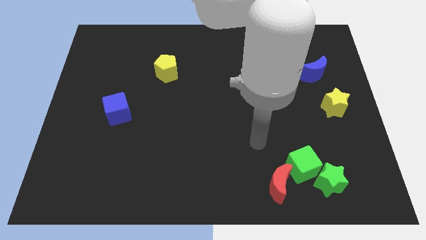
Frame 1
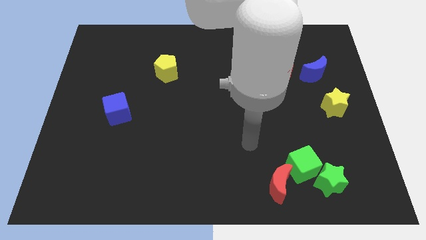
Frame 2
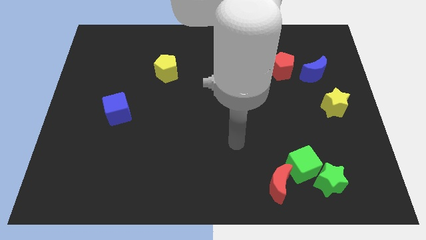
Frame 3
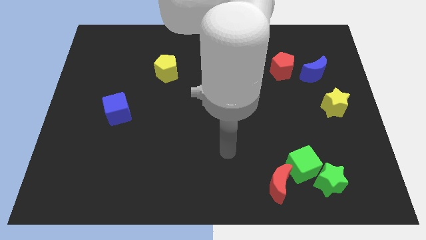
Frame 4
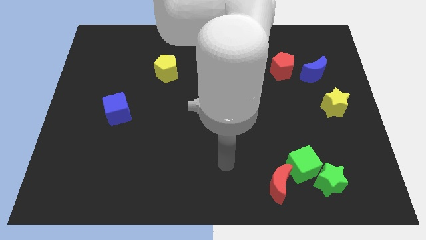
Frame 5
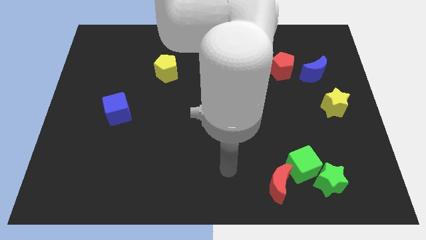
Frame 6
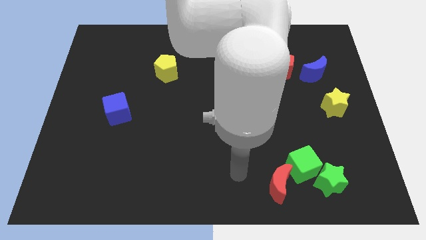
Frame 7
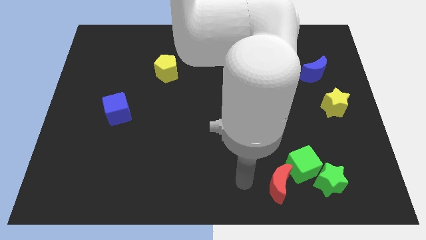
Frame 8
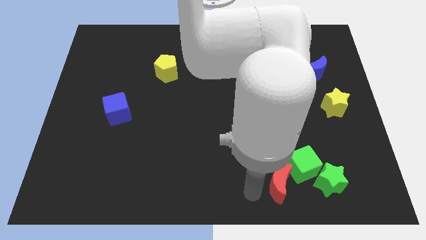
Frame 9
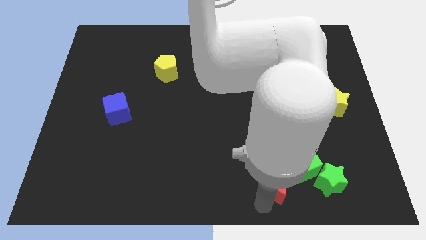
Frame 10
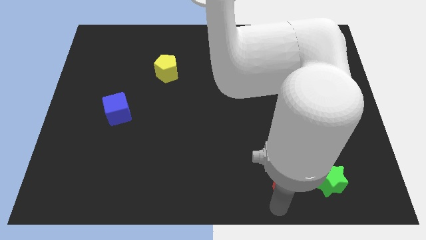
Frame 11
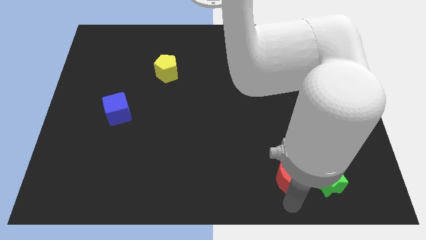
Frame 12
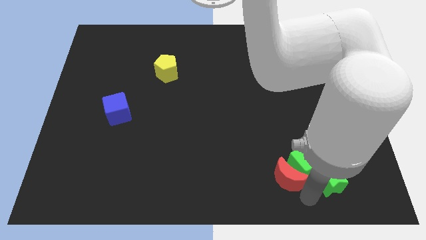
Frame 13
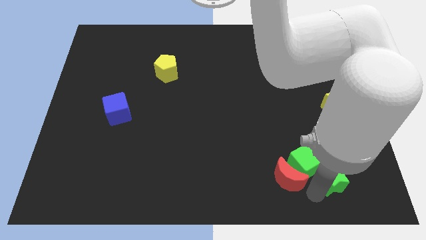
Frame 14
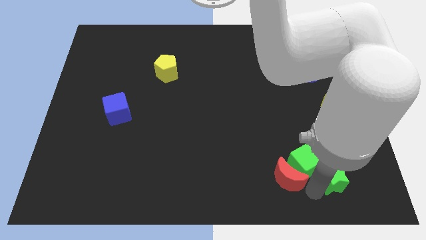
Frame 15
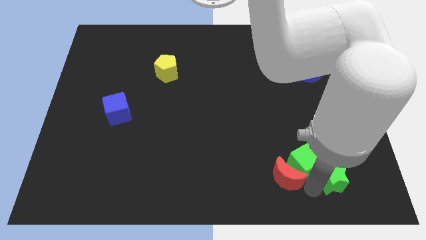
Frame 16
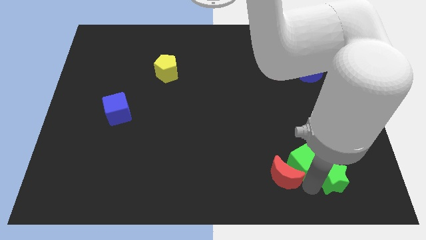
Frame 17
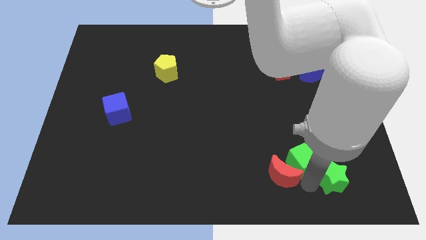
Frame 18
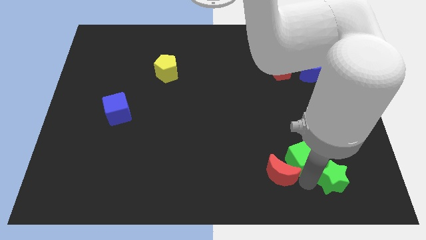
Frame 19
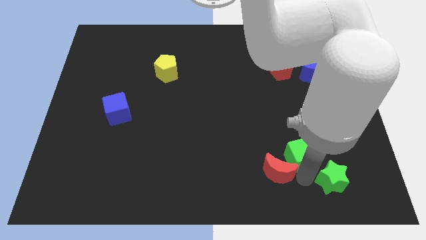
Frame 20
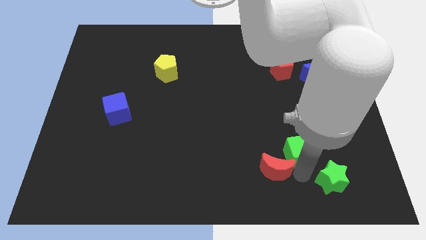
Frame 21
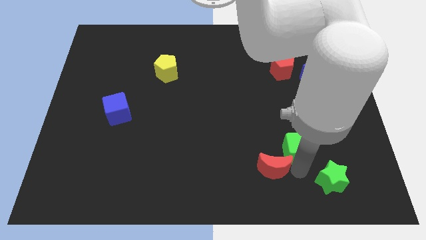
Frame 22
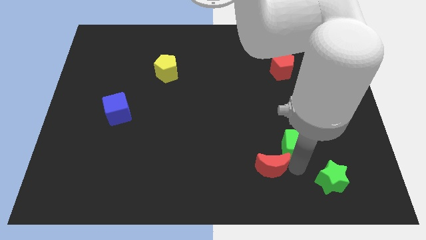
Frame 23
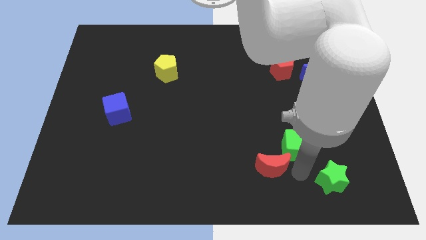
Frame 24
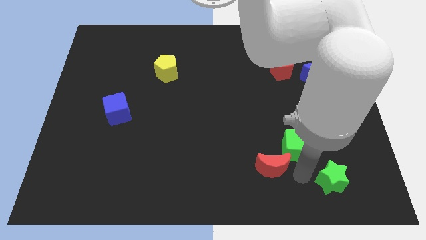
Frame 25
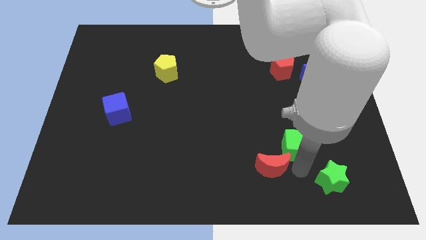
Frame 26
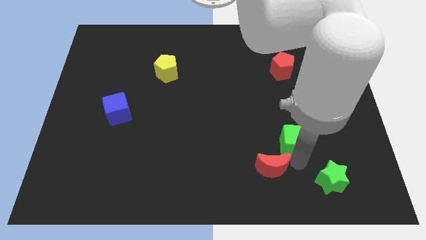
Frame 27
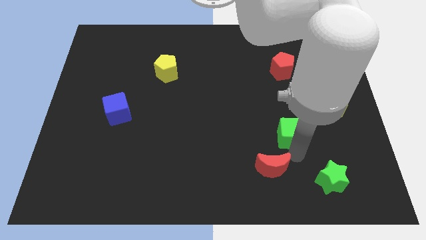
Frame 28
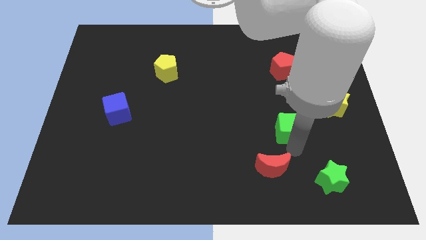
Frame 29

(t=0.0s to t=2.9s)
move the green cube away from the green star and red moon

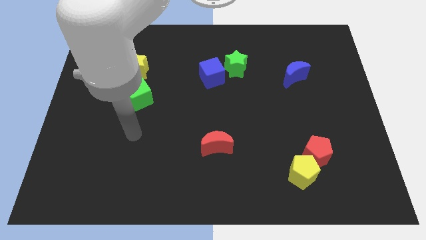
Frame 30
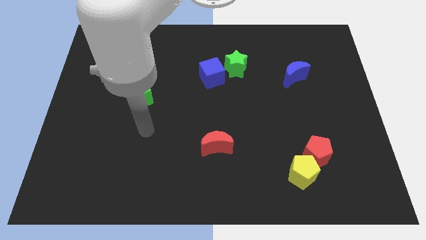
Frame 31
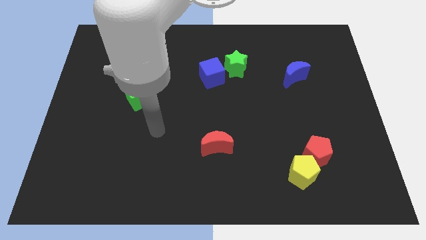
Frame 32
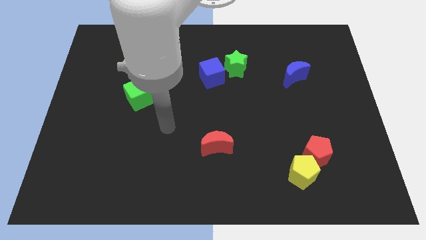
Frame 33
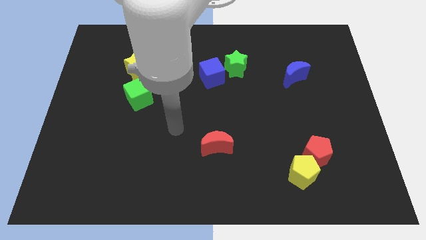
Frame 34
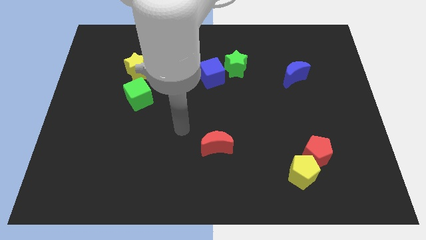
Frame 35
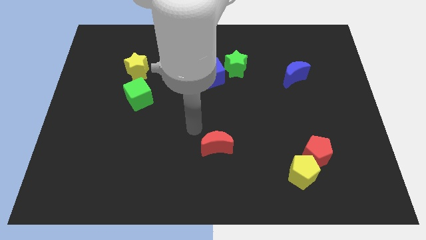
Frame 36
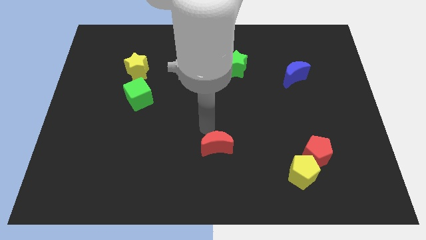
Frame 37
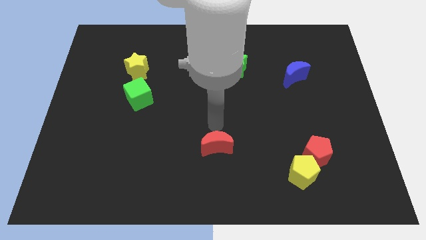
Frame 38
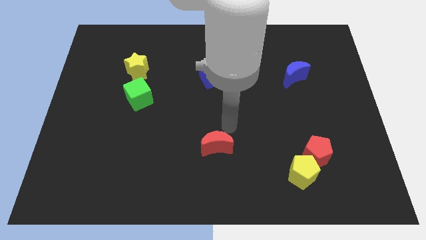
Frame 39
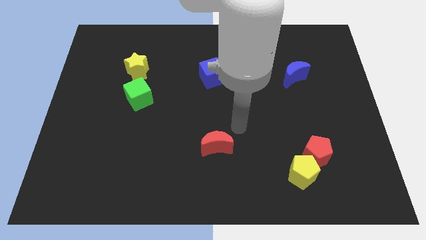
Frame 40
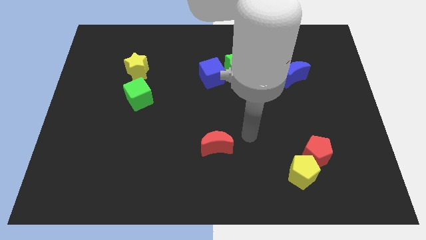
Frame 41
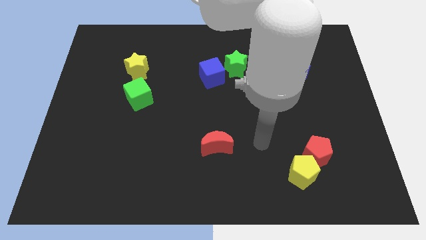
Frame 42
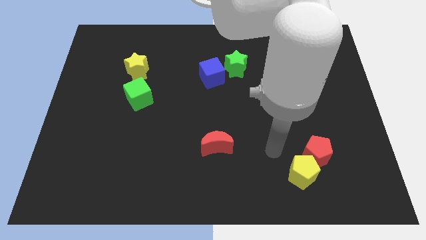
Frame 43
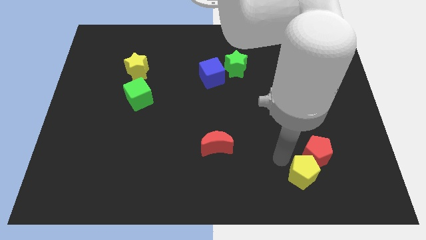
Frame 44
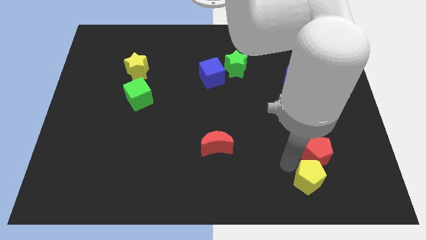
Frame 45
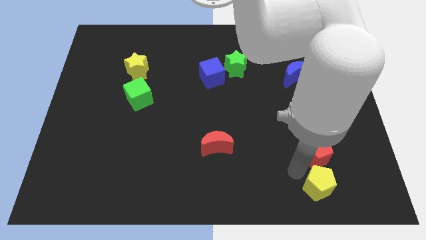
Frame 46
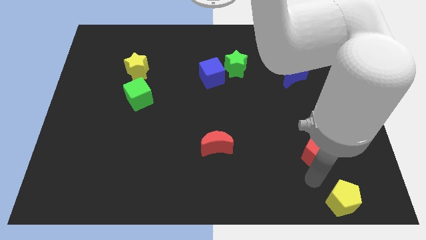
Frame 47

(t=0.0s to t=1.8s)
pull the red pentagon apart from the yellow pentagon

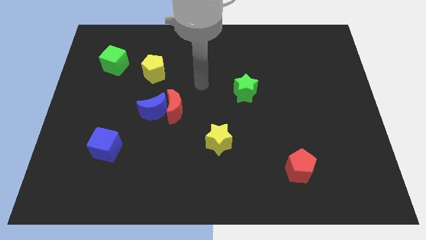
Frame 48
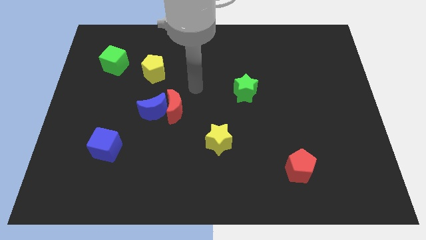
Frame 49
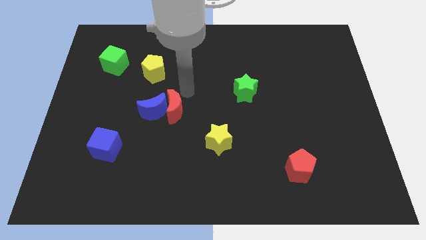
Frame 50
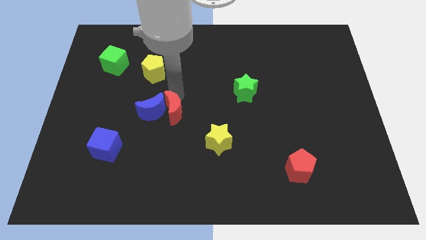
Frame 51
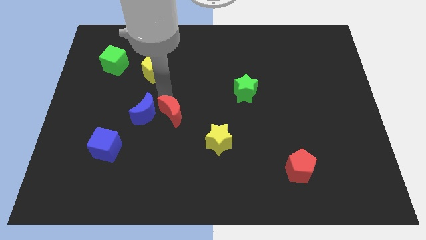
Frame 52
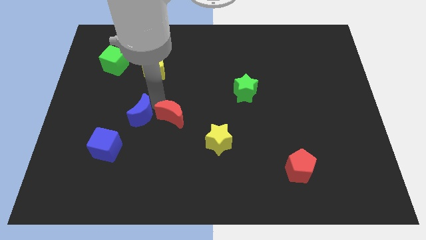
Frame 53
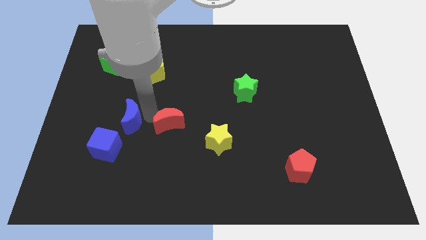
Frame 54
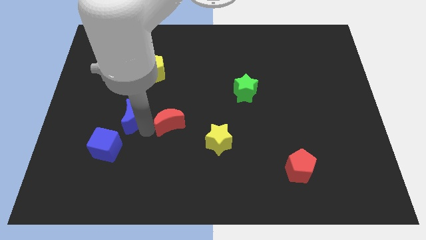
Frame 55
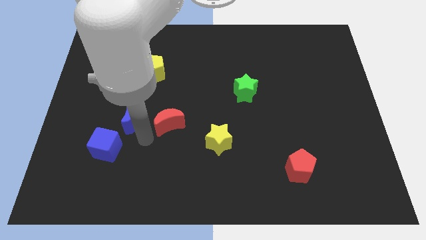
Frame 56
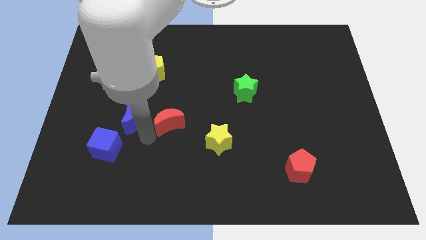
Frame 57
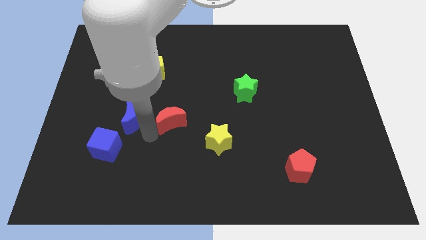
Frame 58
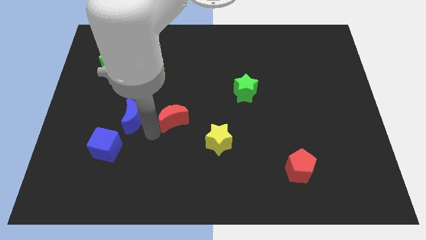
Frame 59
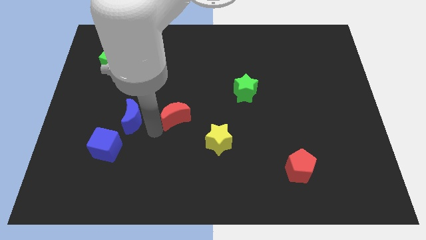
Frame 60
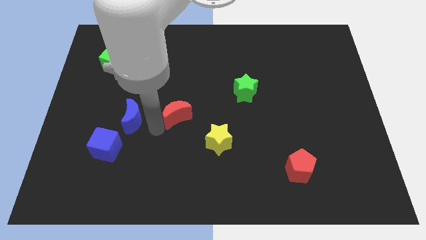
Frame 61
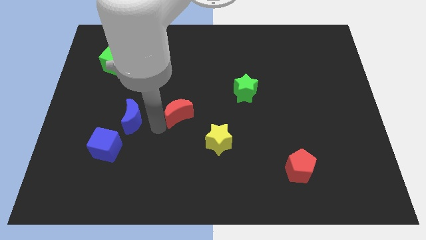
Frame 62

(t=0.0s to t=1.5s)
move the red moon away from the blue moon

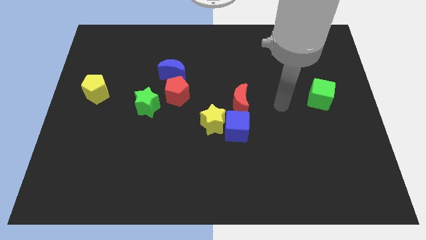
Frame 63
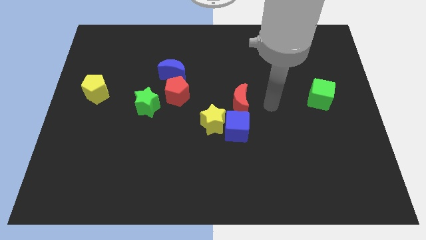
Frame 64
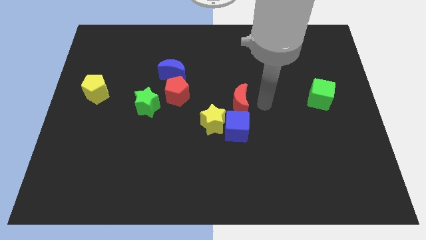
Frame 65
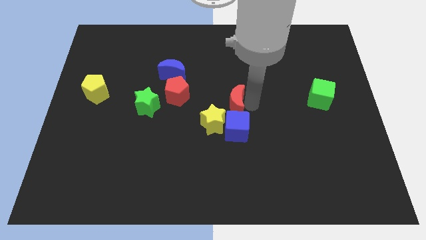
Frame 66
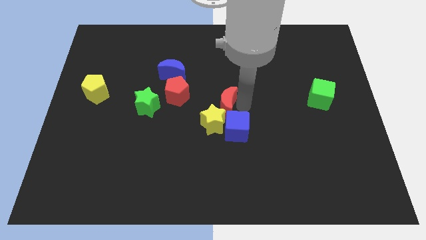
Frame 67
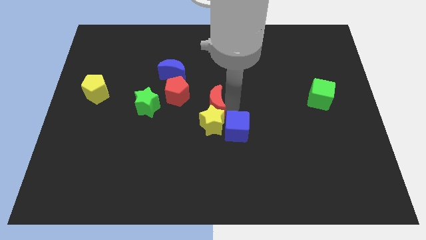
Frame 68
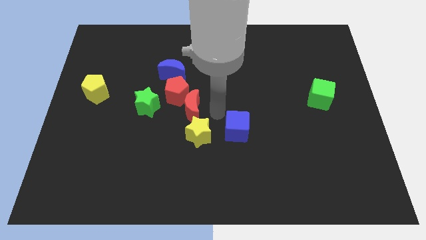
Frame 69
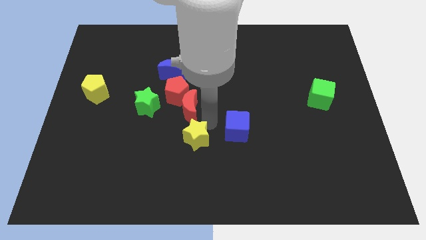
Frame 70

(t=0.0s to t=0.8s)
move the blue cube away from the yellow star and red moon

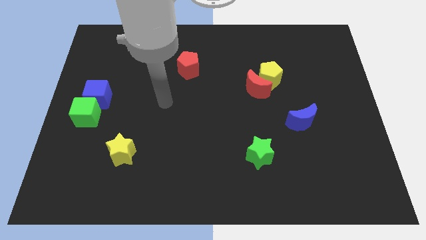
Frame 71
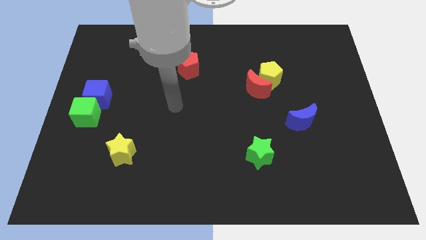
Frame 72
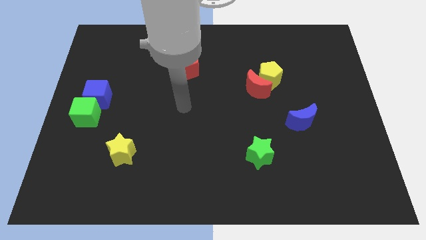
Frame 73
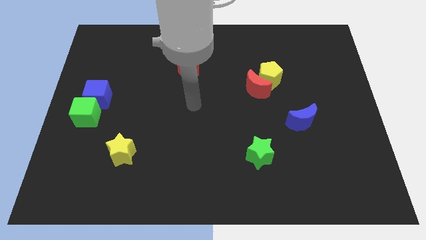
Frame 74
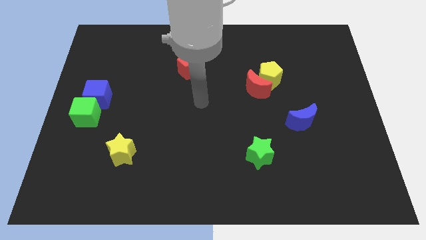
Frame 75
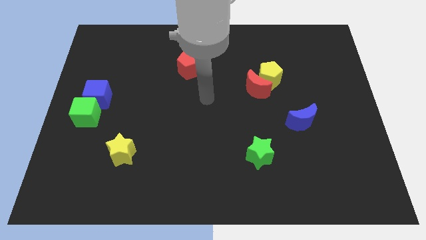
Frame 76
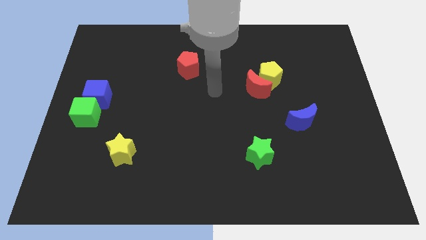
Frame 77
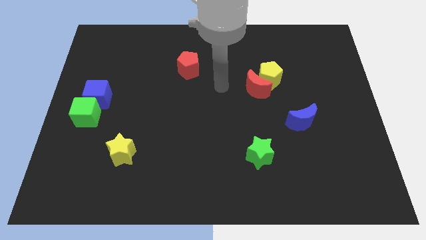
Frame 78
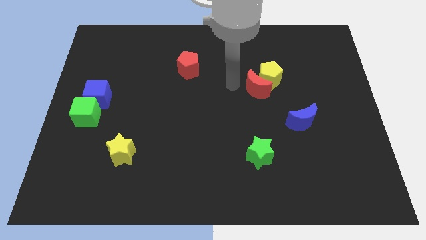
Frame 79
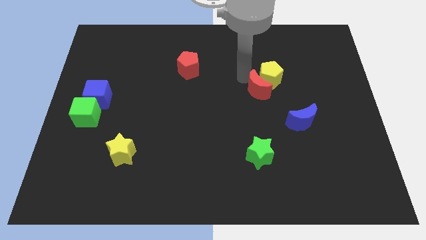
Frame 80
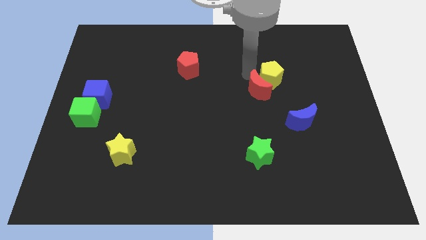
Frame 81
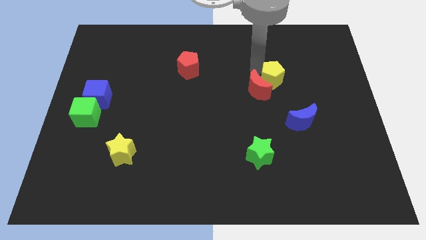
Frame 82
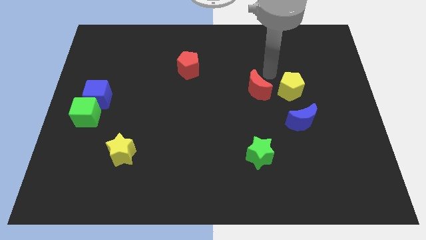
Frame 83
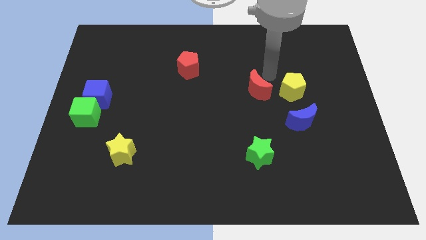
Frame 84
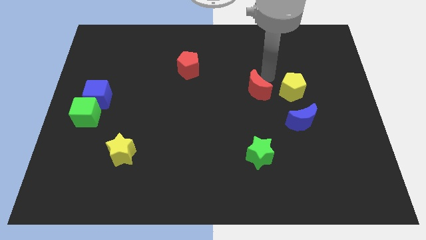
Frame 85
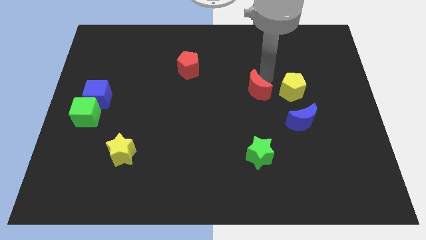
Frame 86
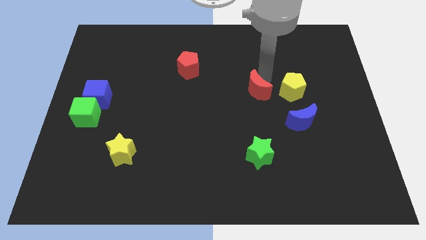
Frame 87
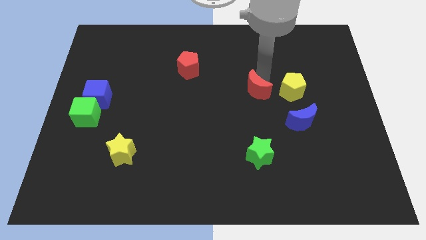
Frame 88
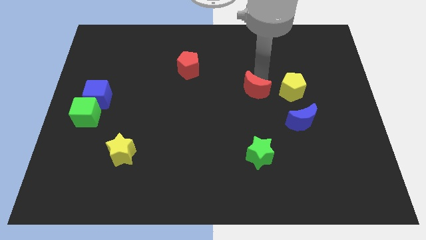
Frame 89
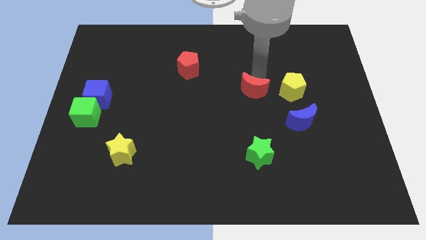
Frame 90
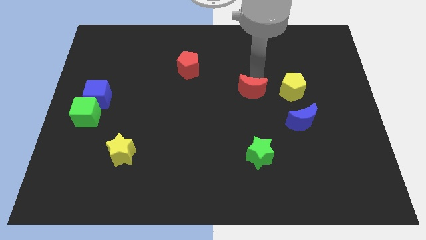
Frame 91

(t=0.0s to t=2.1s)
separate the red moon from the yellow pentagon

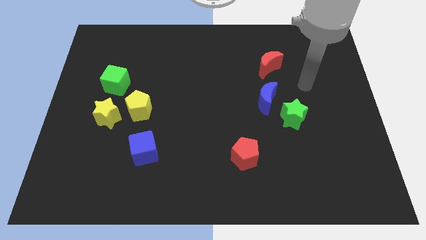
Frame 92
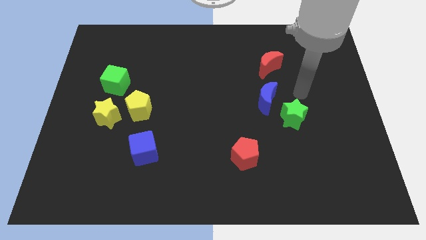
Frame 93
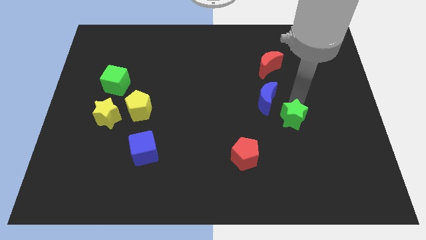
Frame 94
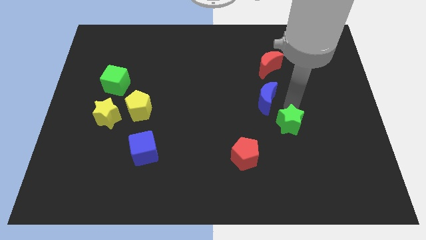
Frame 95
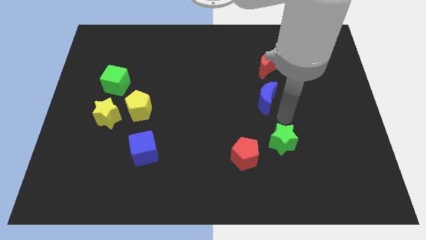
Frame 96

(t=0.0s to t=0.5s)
move the blue moon away from the green star
